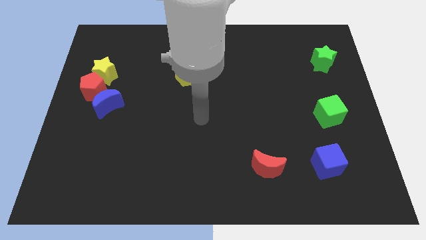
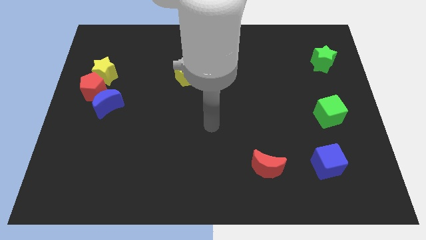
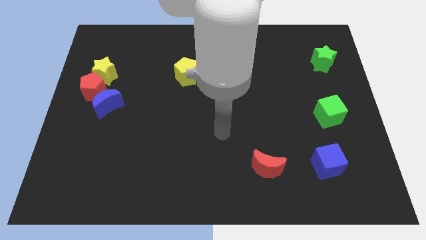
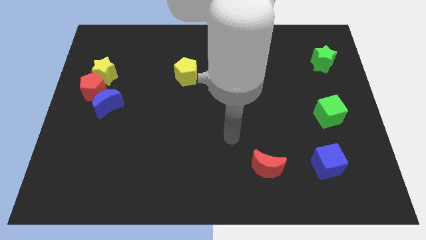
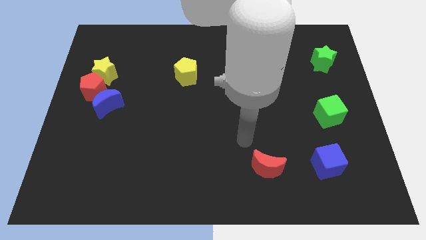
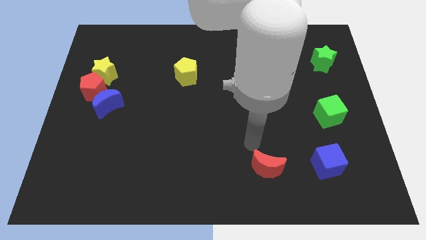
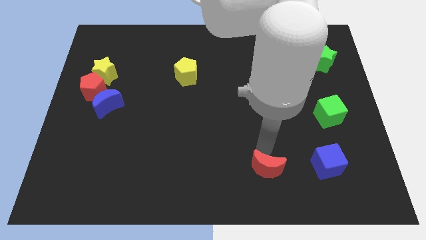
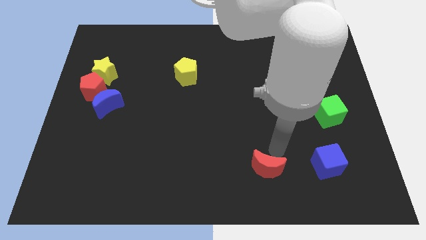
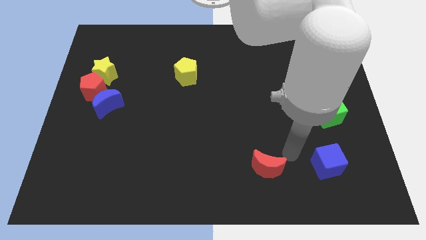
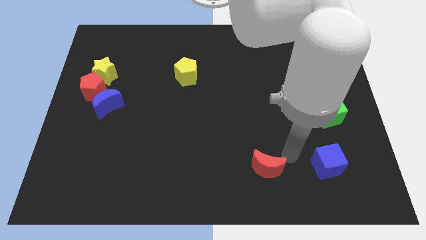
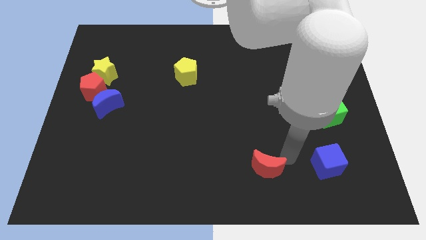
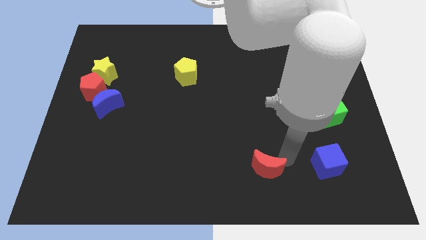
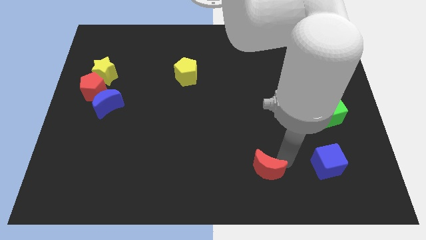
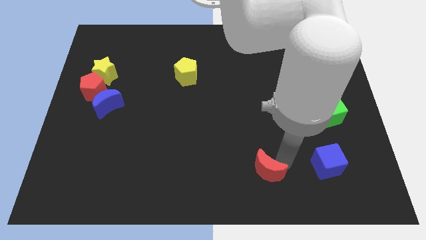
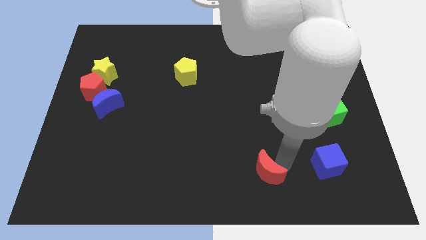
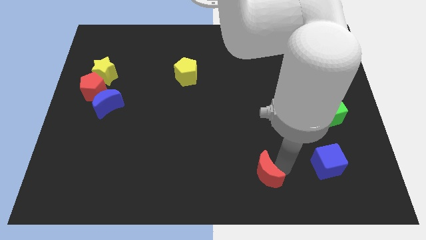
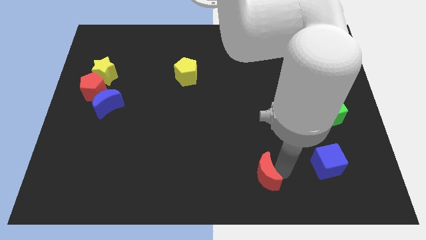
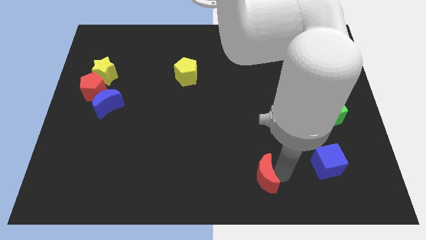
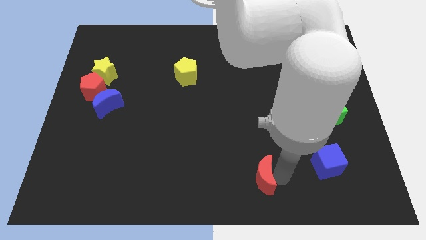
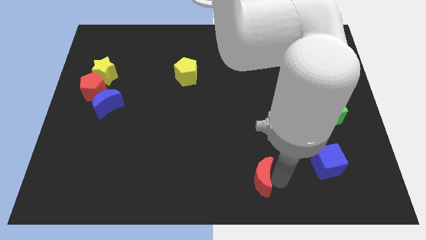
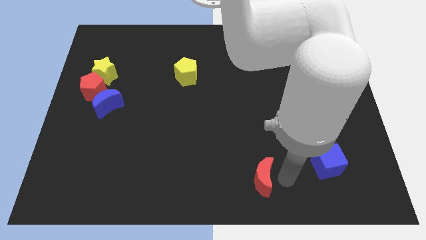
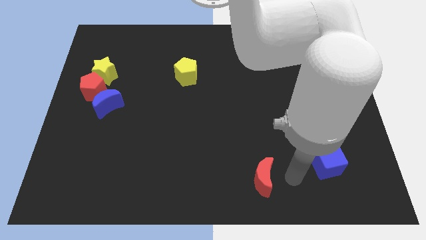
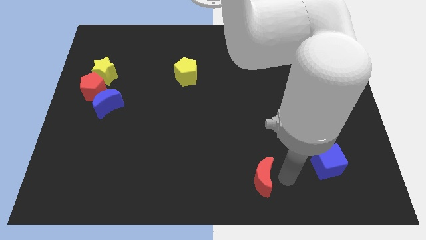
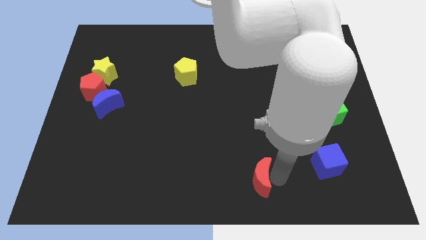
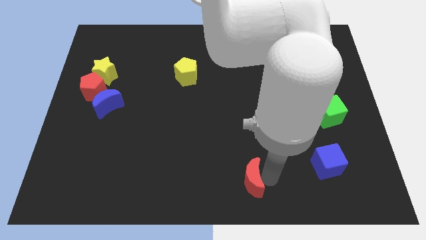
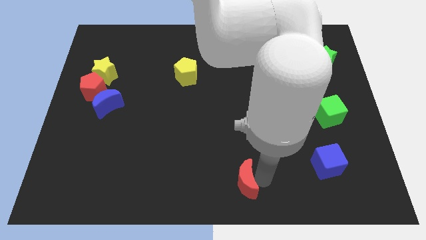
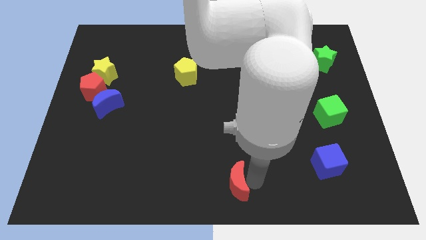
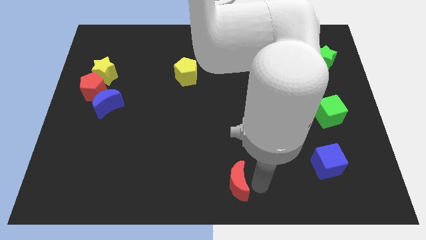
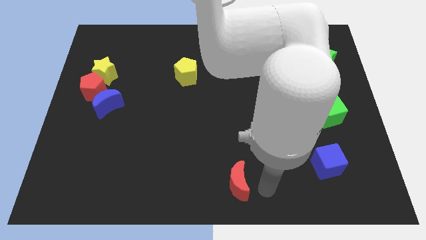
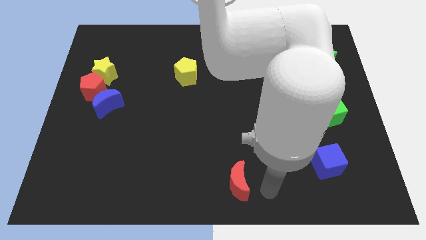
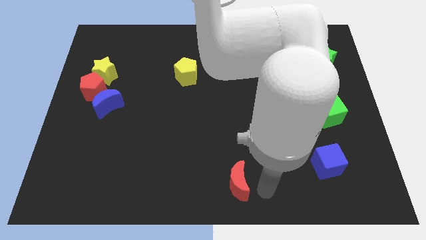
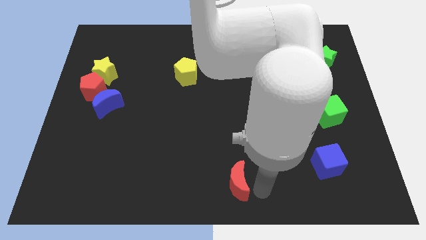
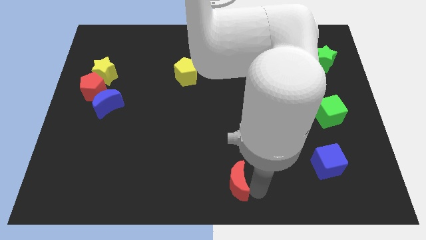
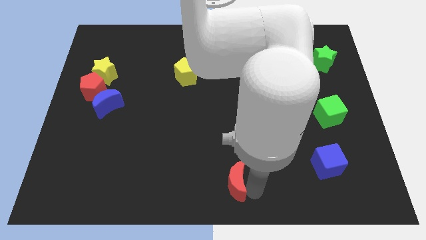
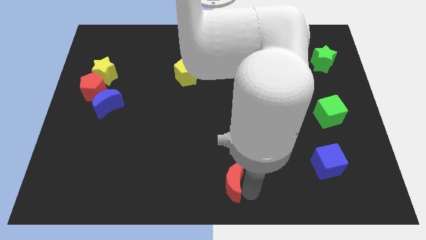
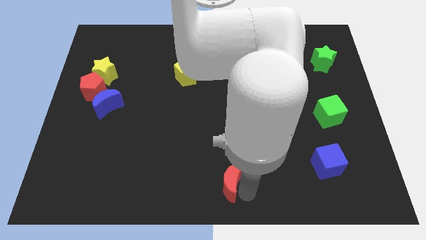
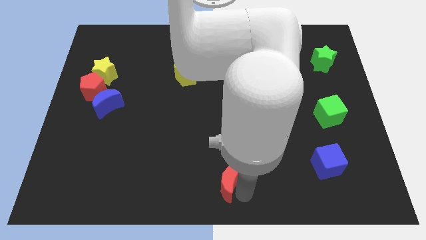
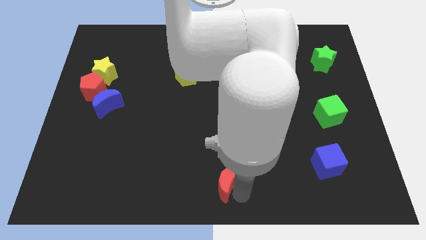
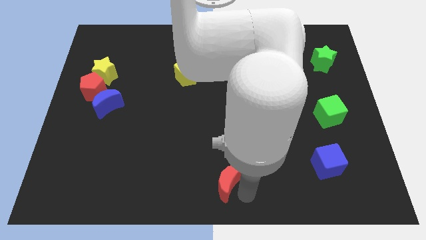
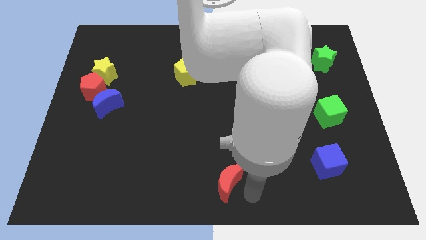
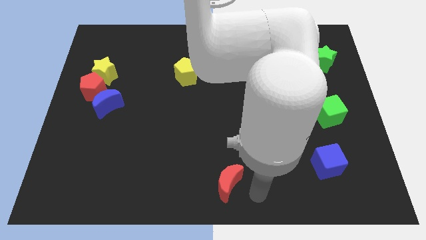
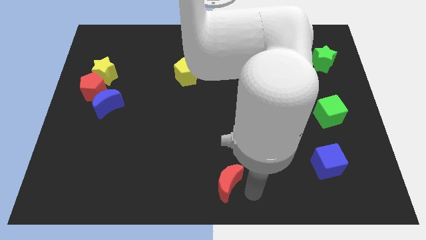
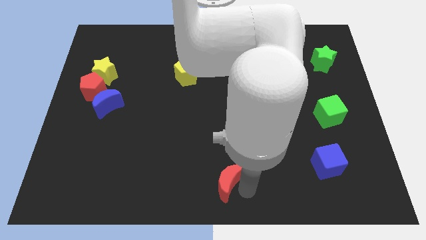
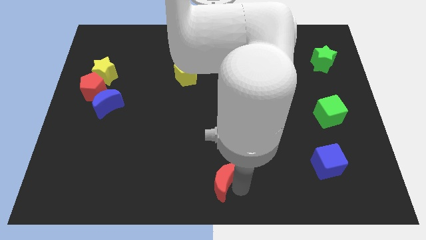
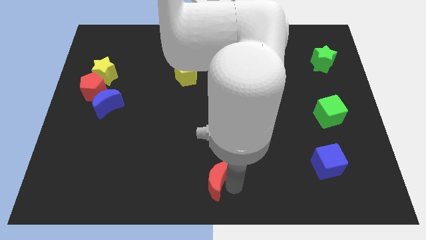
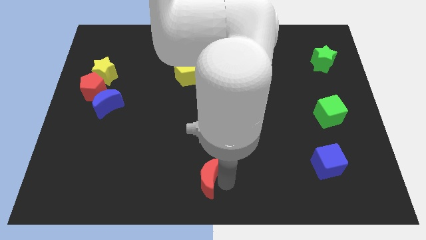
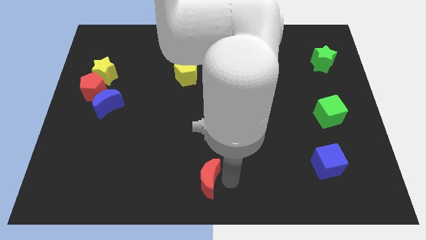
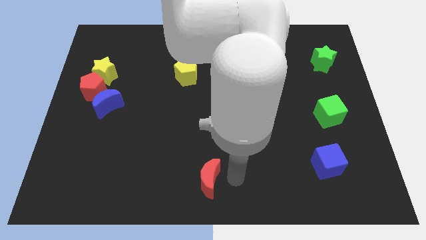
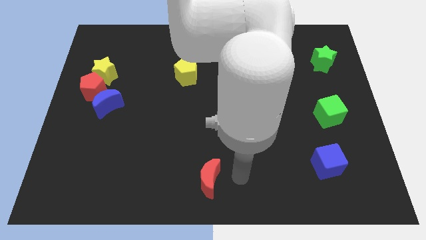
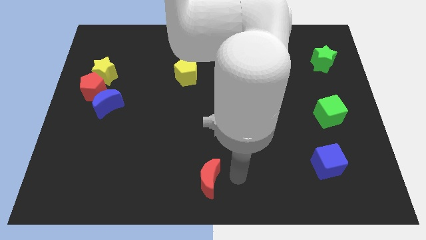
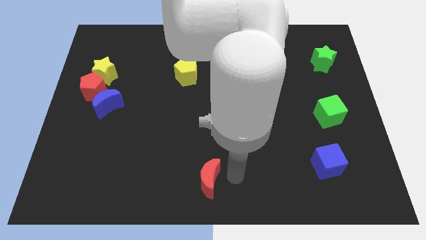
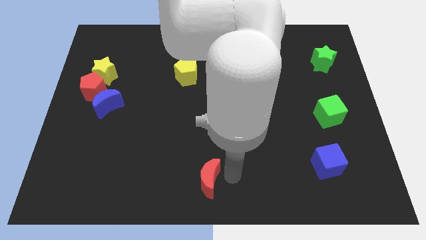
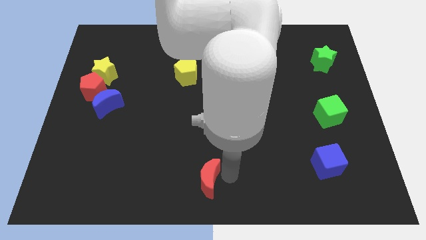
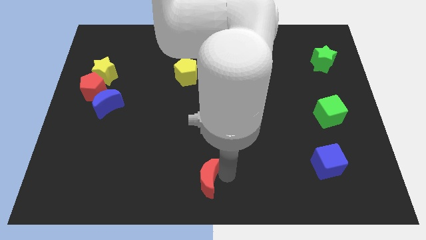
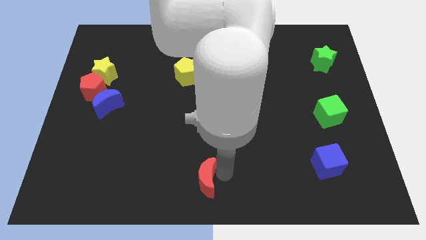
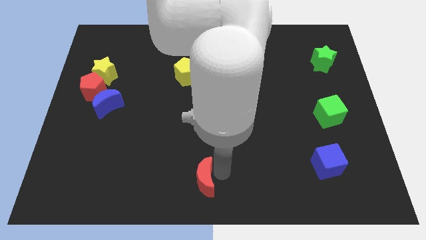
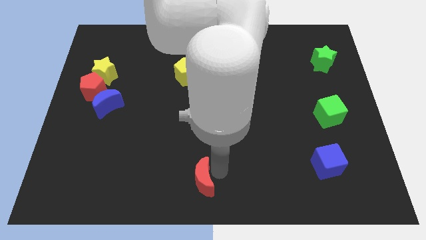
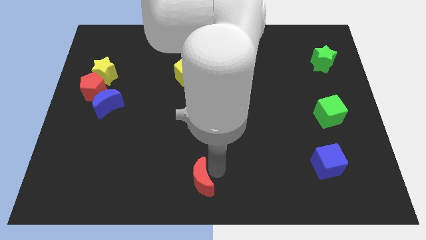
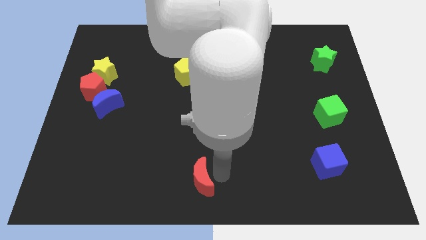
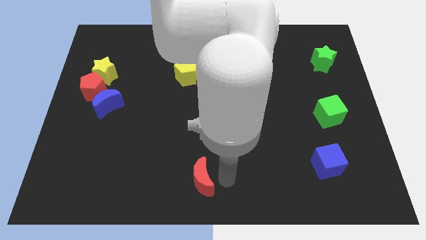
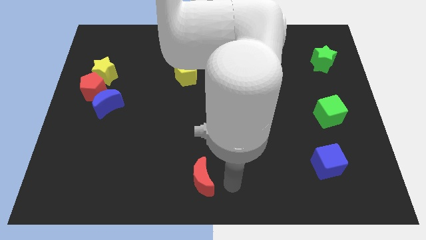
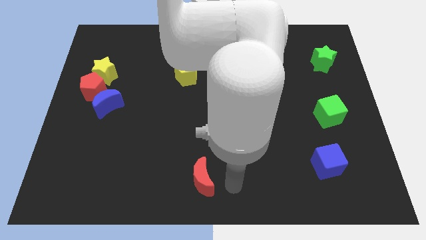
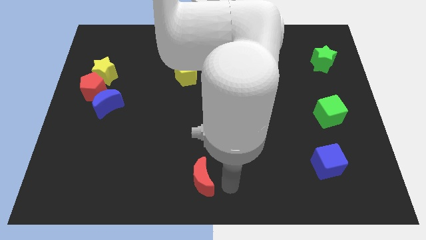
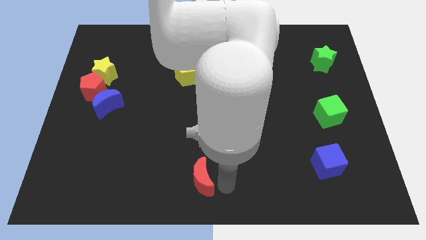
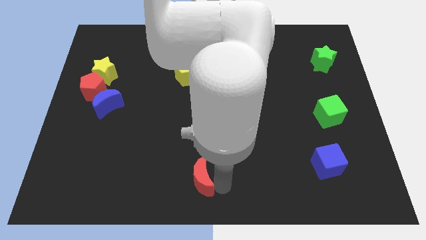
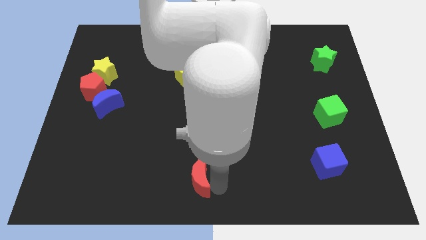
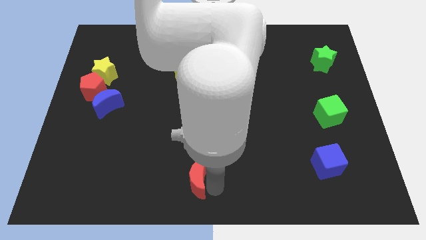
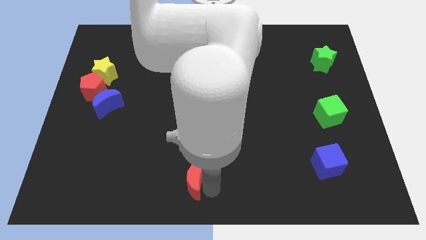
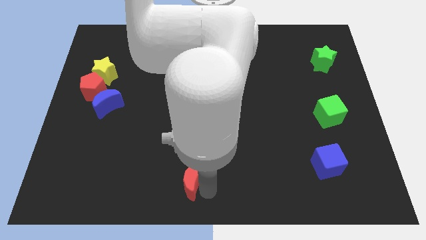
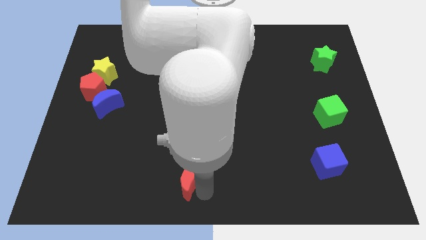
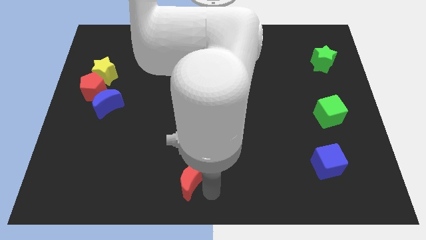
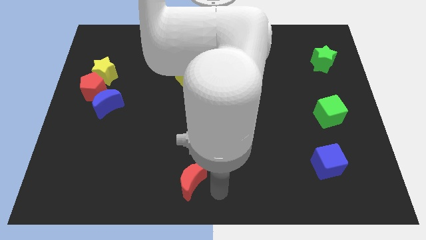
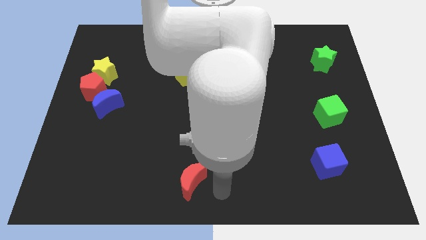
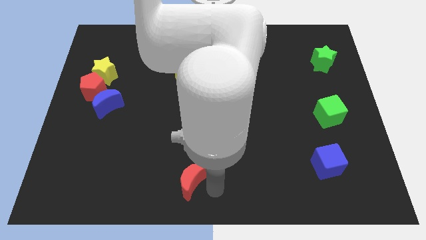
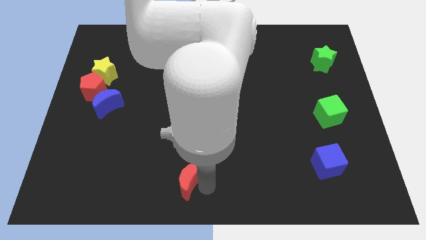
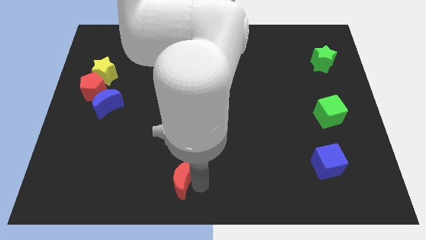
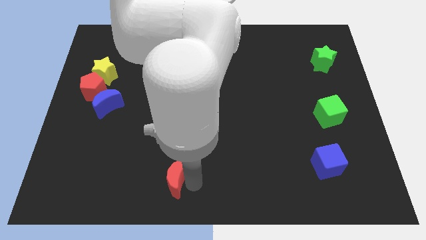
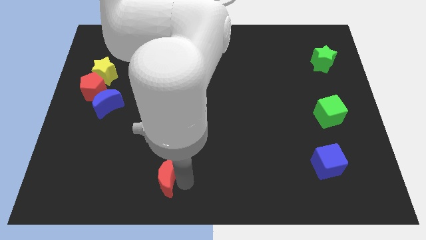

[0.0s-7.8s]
slide the red moon to the left

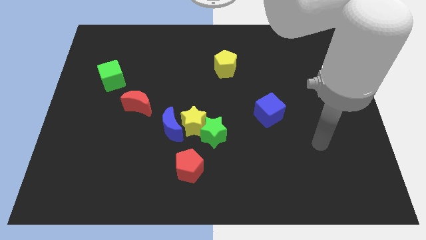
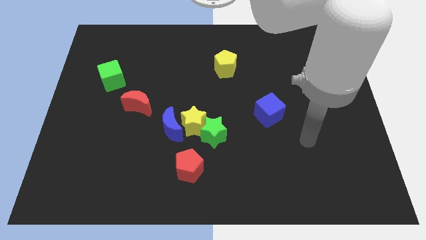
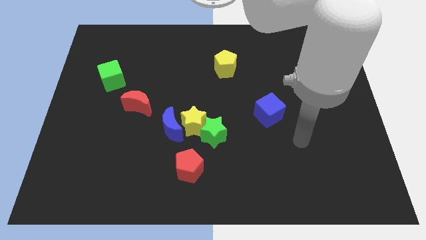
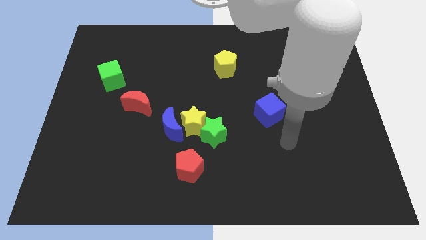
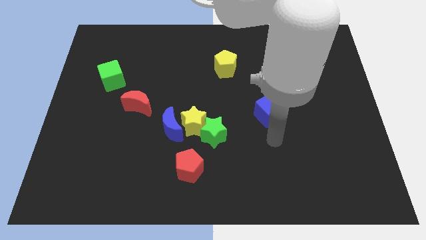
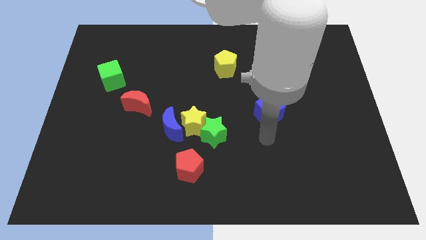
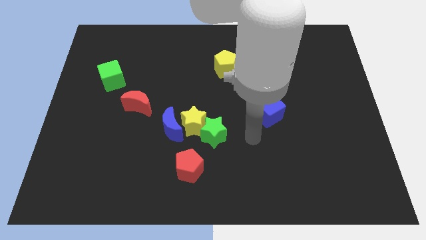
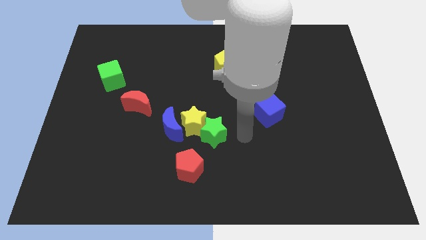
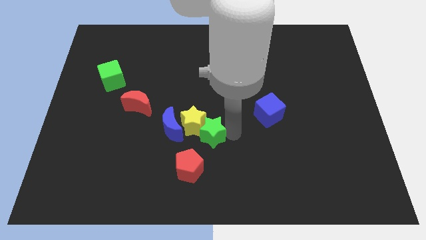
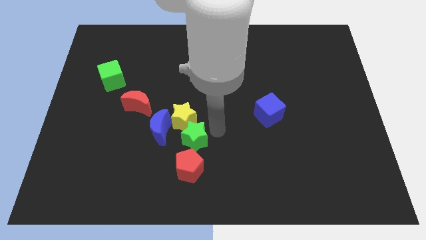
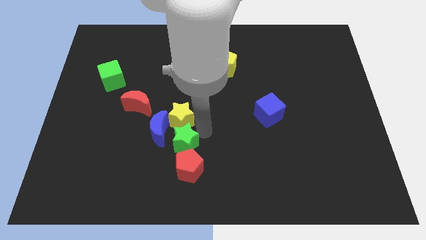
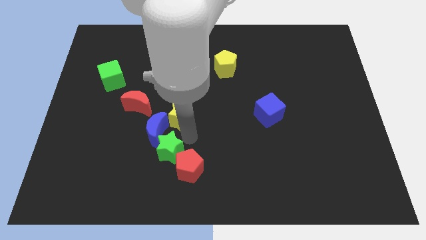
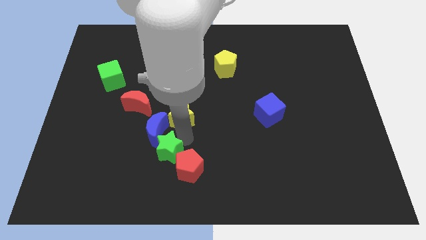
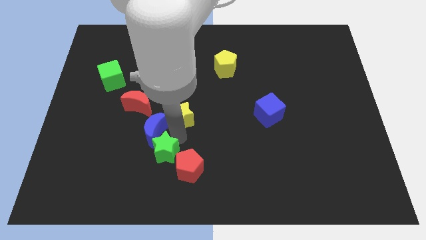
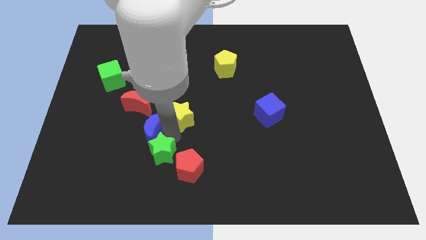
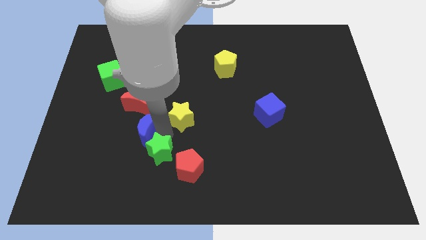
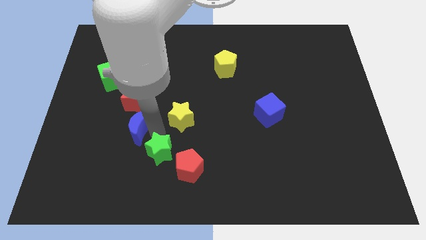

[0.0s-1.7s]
push the blue moon somewhat to the left
